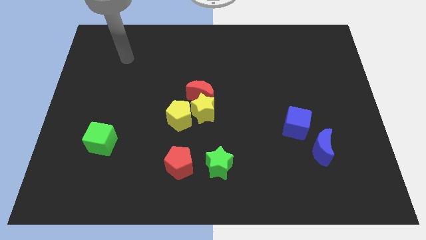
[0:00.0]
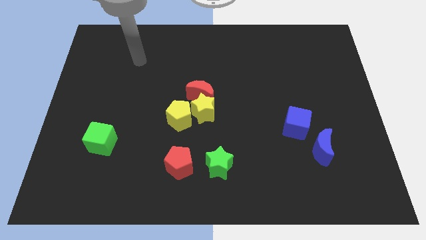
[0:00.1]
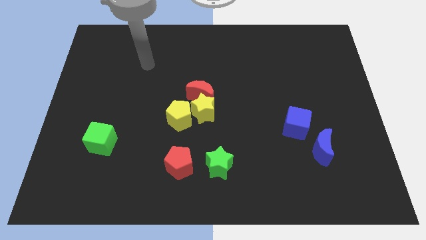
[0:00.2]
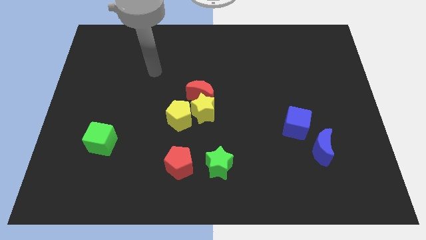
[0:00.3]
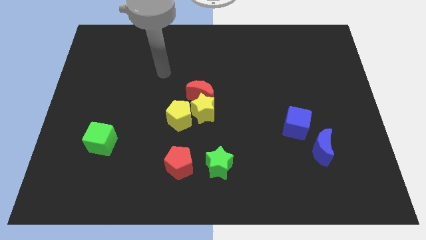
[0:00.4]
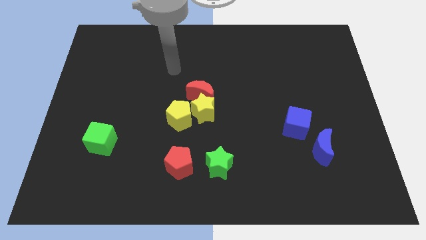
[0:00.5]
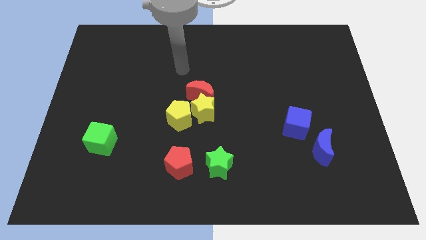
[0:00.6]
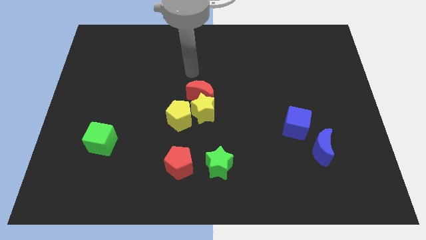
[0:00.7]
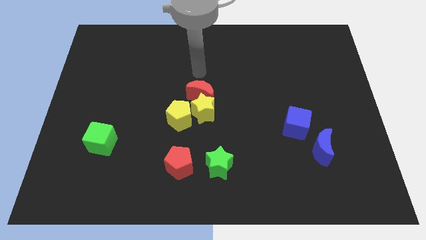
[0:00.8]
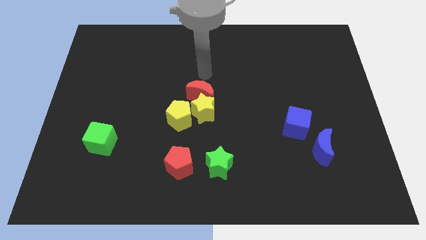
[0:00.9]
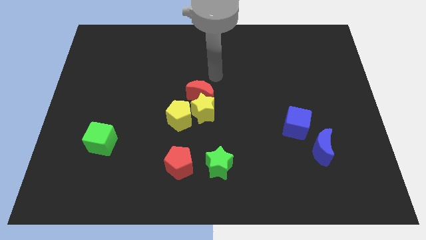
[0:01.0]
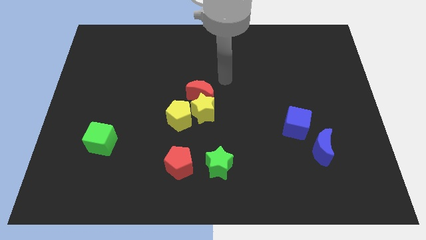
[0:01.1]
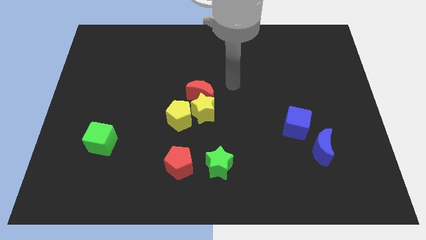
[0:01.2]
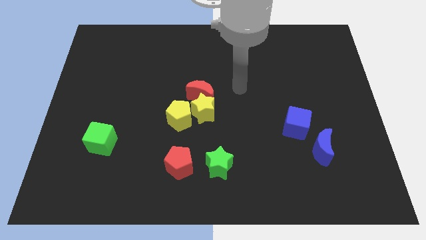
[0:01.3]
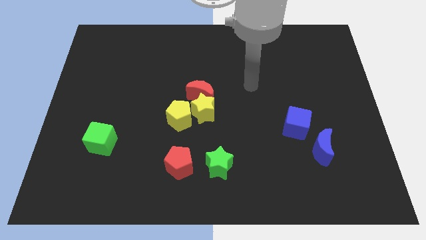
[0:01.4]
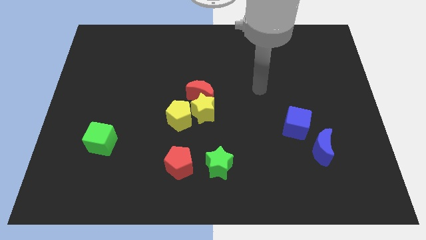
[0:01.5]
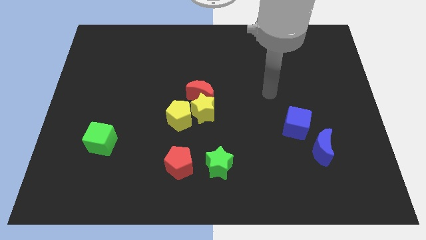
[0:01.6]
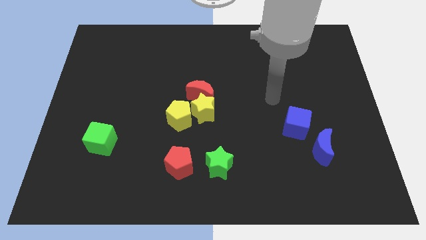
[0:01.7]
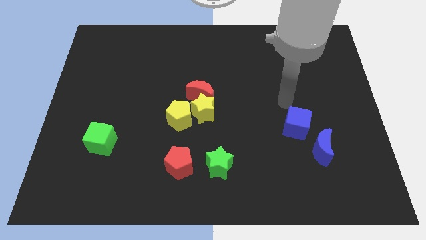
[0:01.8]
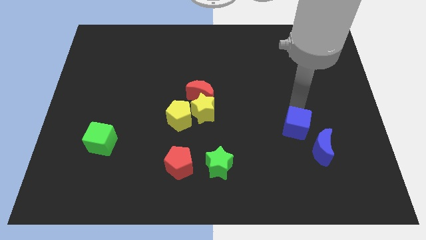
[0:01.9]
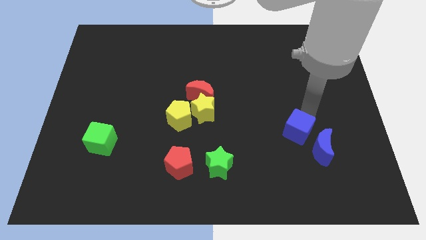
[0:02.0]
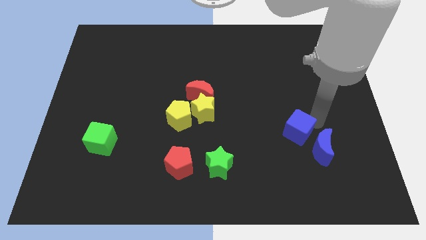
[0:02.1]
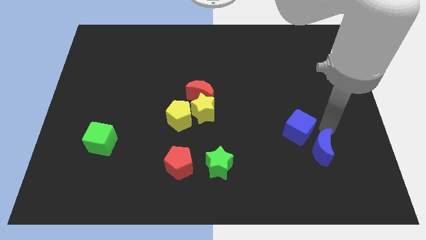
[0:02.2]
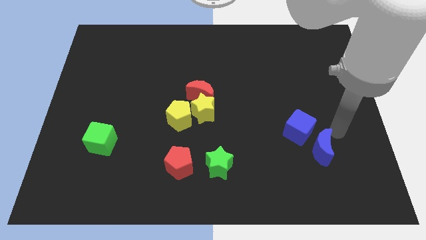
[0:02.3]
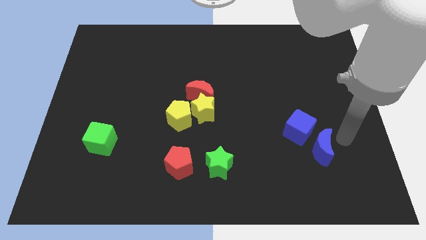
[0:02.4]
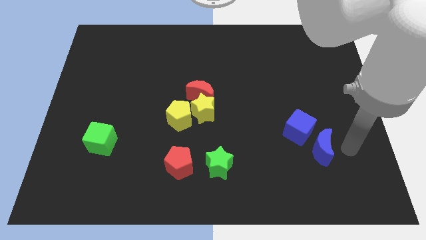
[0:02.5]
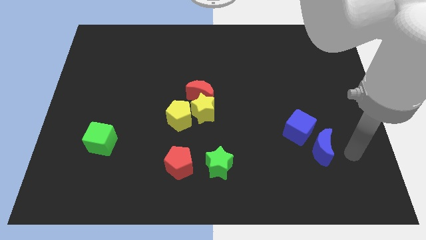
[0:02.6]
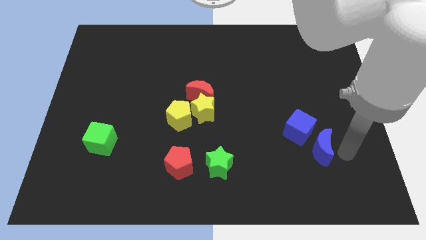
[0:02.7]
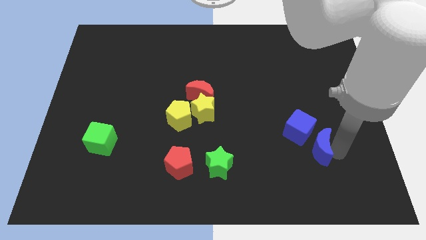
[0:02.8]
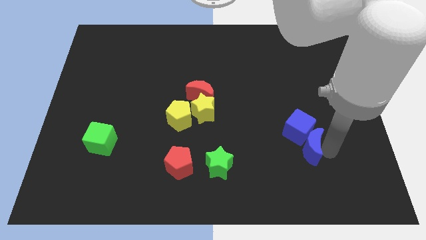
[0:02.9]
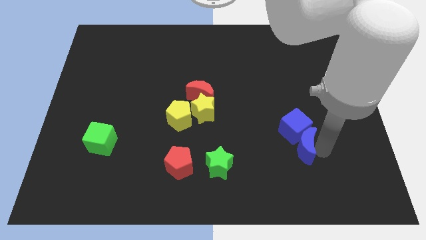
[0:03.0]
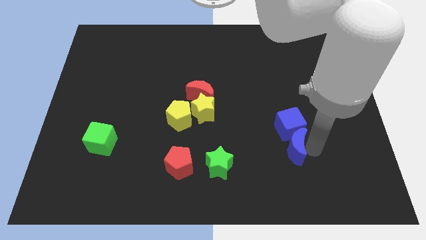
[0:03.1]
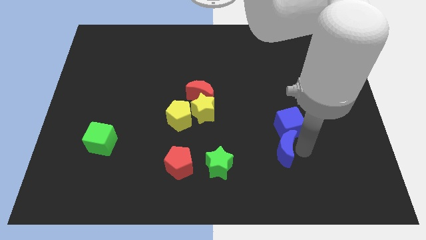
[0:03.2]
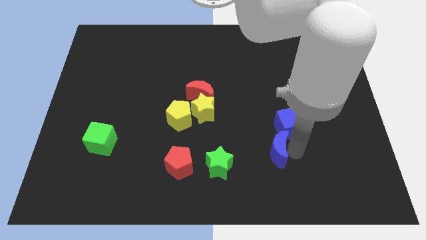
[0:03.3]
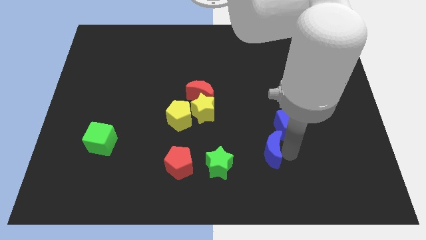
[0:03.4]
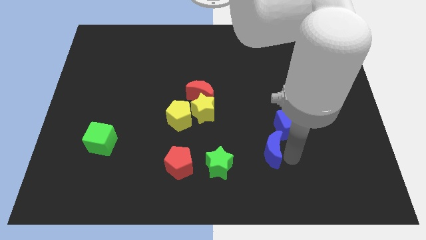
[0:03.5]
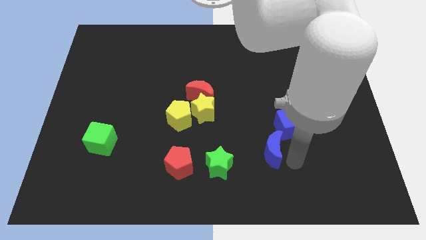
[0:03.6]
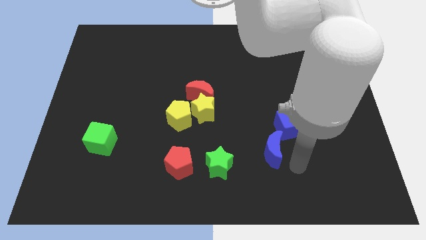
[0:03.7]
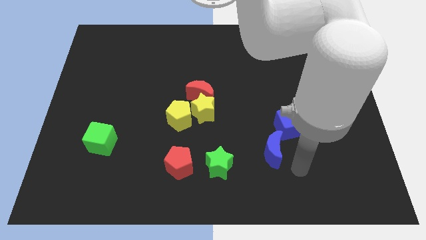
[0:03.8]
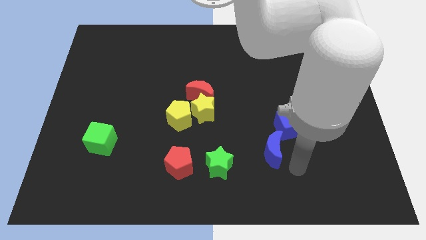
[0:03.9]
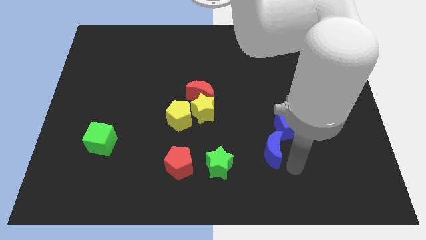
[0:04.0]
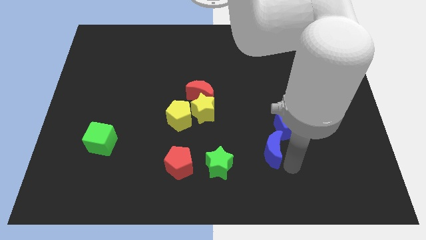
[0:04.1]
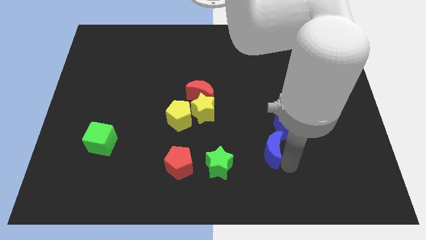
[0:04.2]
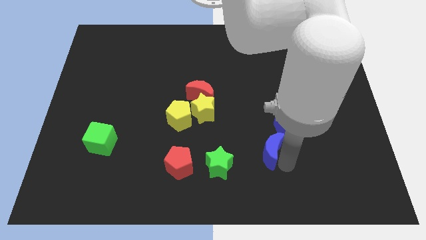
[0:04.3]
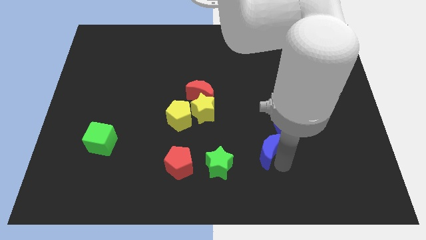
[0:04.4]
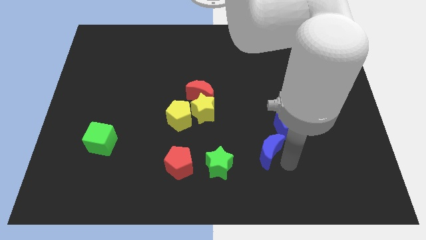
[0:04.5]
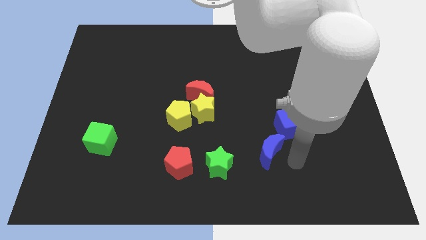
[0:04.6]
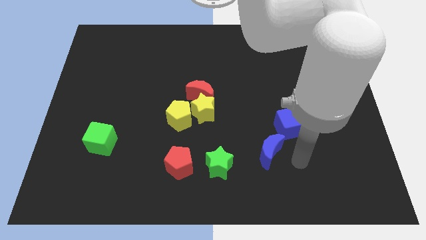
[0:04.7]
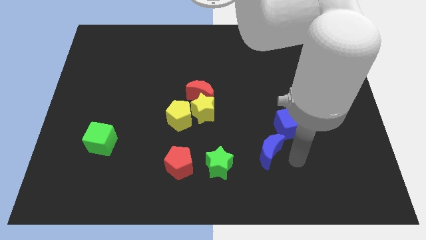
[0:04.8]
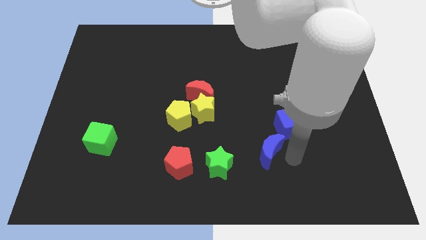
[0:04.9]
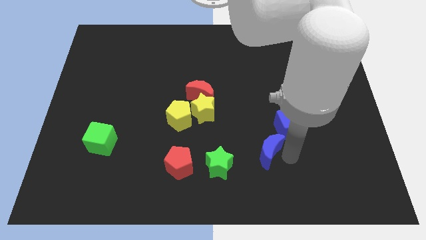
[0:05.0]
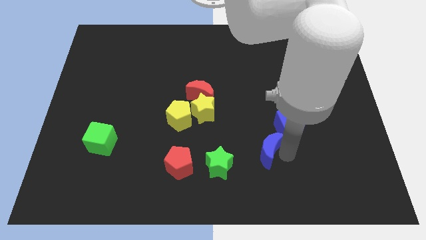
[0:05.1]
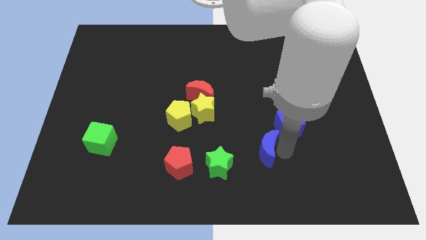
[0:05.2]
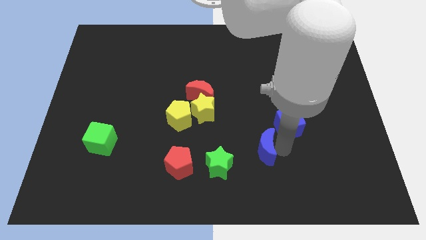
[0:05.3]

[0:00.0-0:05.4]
move the blue moon to the top right side of the green star

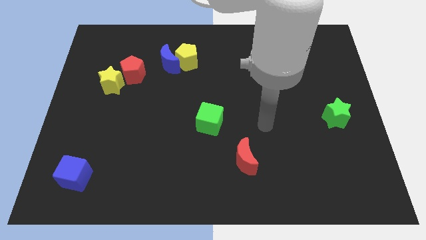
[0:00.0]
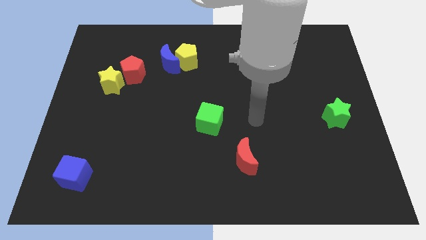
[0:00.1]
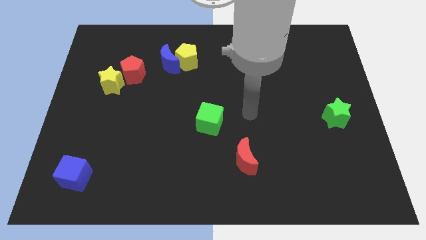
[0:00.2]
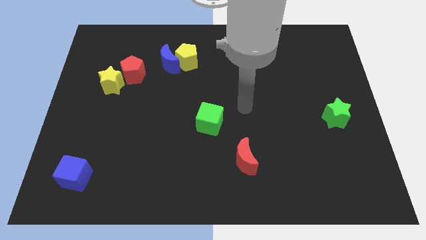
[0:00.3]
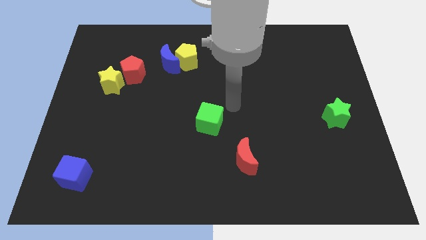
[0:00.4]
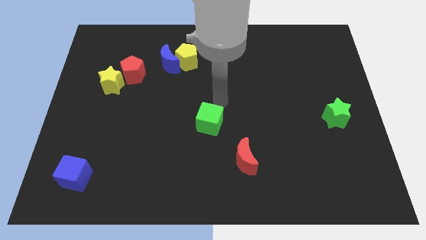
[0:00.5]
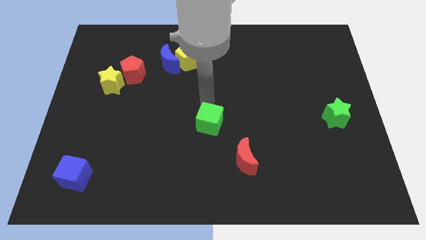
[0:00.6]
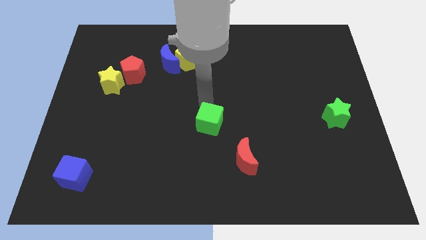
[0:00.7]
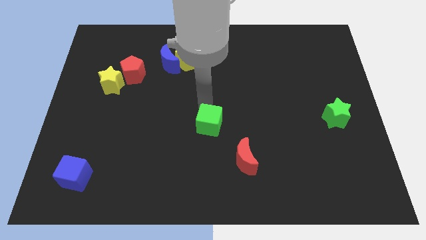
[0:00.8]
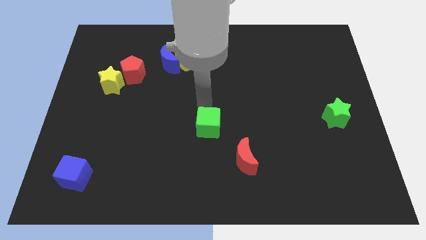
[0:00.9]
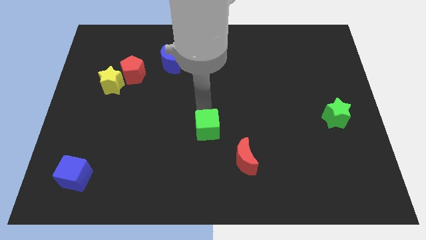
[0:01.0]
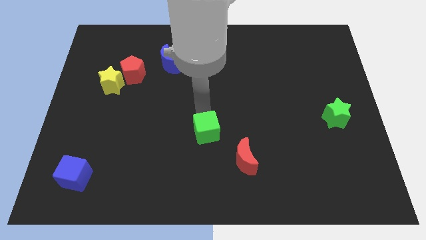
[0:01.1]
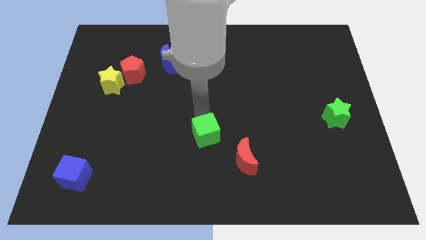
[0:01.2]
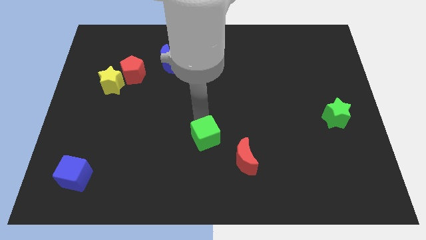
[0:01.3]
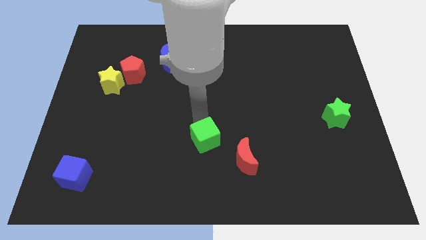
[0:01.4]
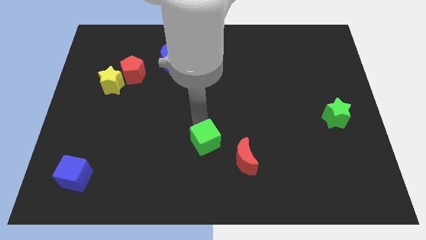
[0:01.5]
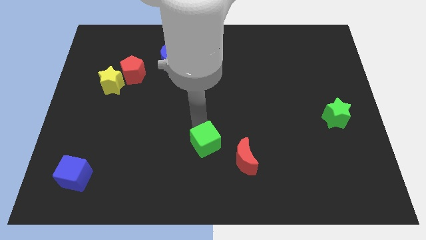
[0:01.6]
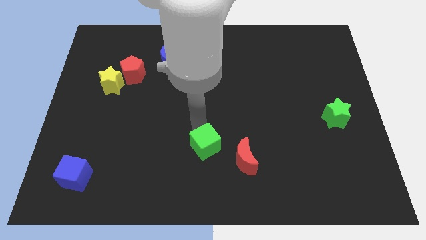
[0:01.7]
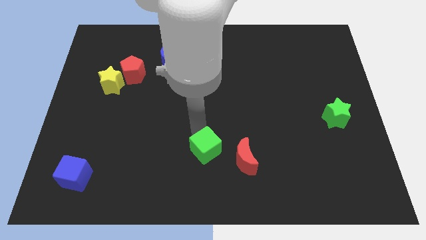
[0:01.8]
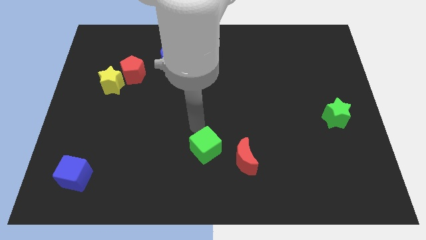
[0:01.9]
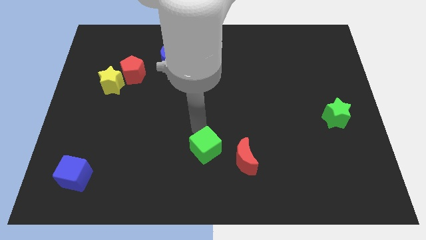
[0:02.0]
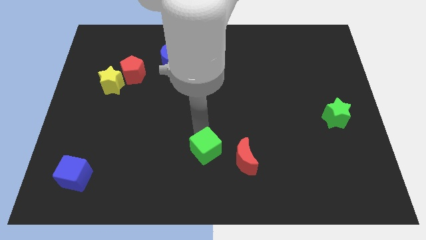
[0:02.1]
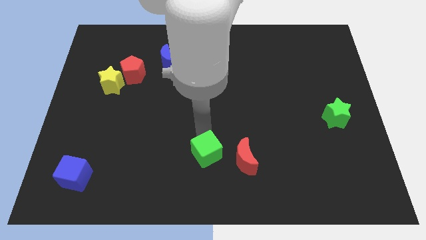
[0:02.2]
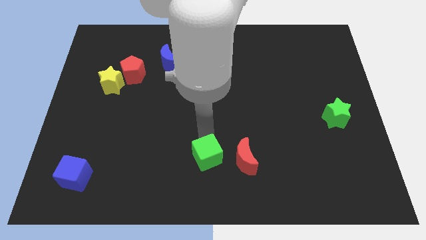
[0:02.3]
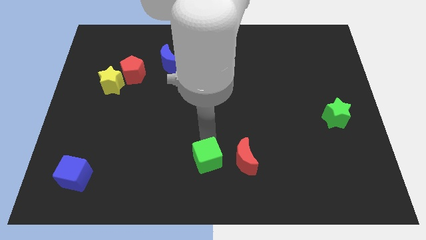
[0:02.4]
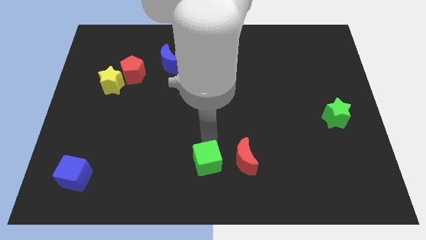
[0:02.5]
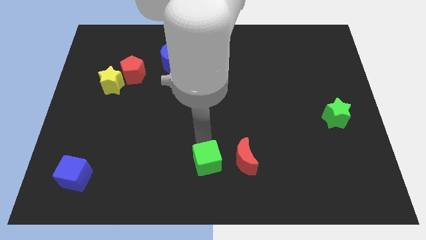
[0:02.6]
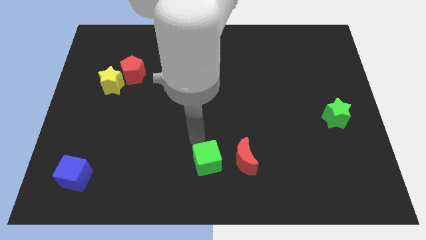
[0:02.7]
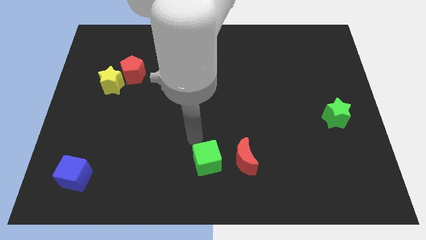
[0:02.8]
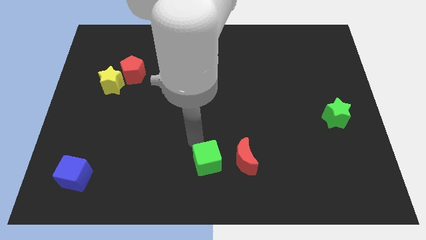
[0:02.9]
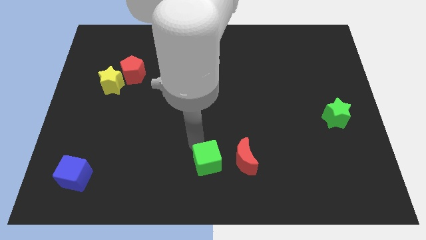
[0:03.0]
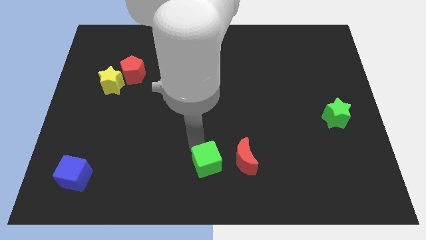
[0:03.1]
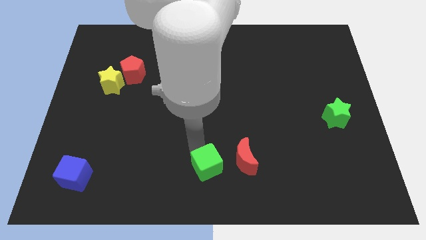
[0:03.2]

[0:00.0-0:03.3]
push the green cube diagonally down and to the left of the red moon
